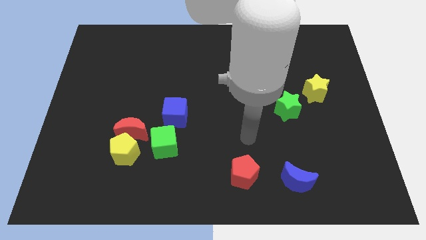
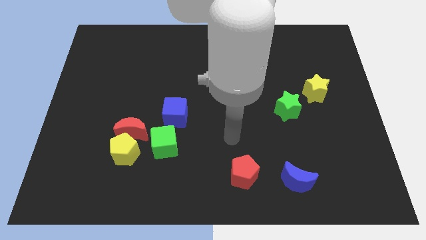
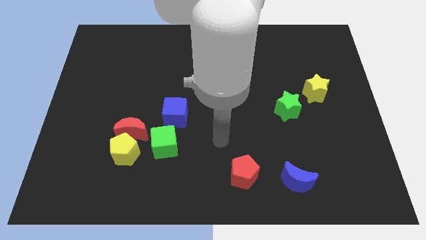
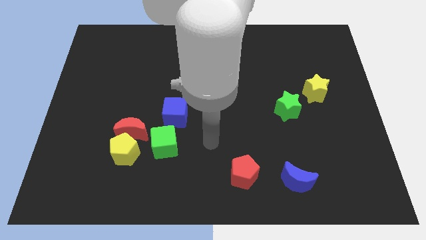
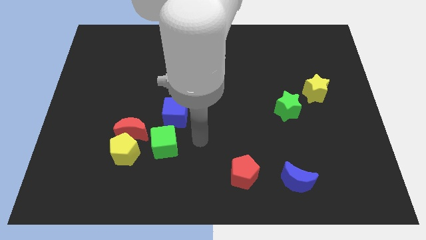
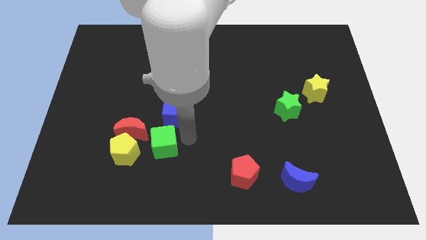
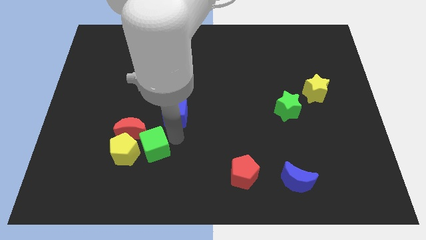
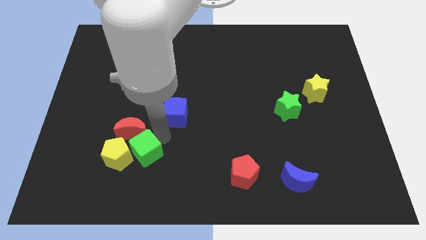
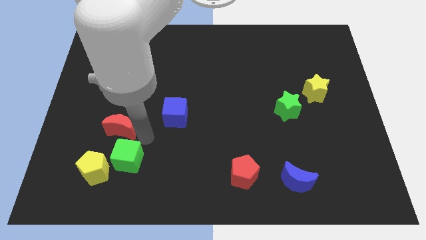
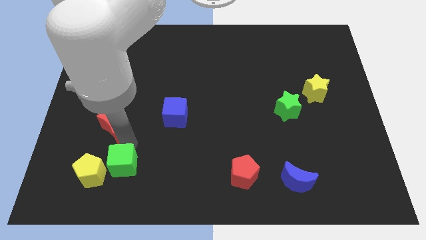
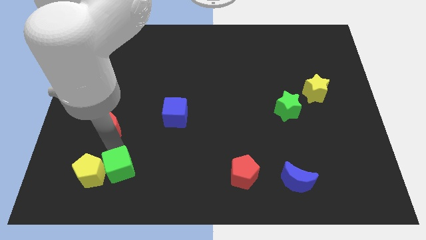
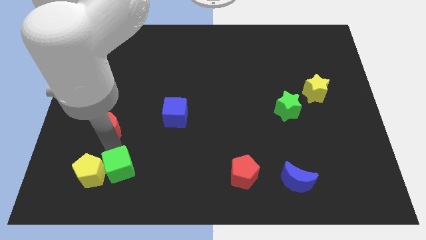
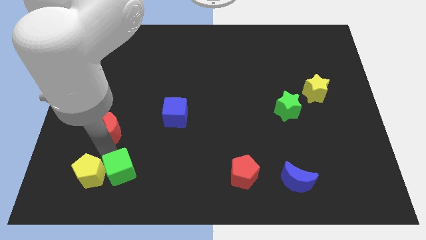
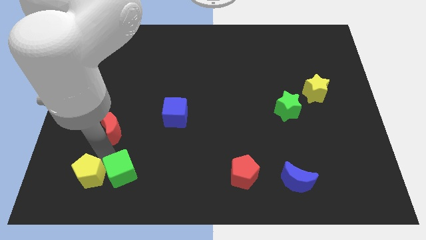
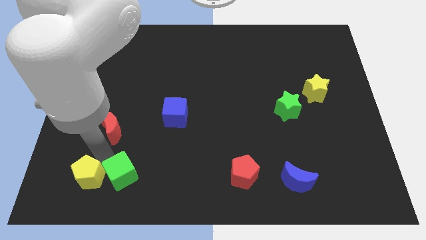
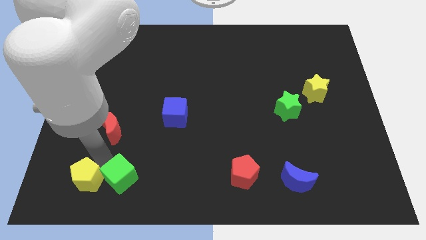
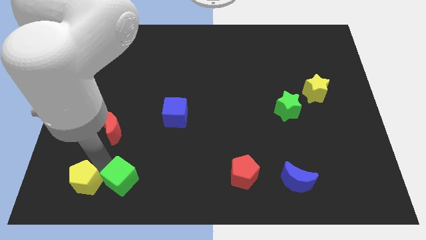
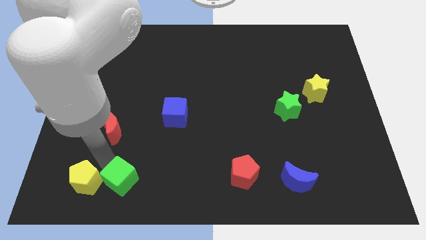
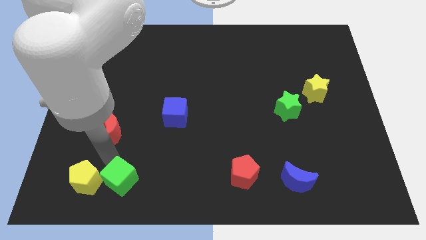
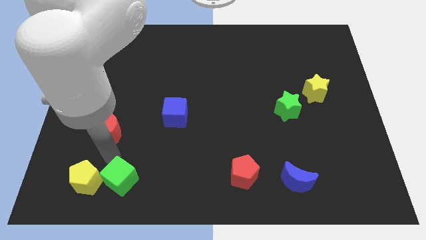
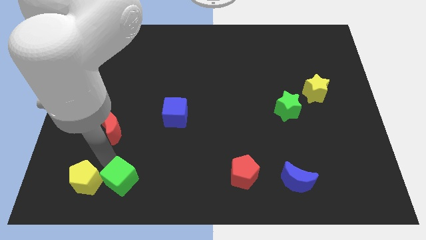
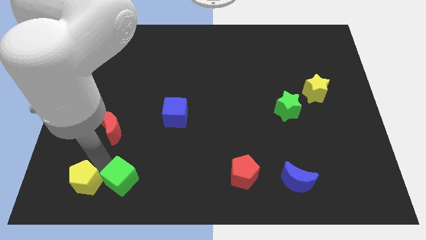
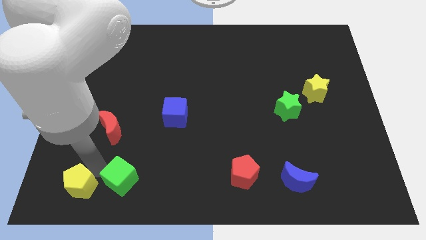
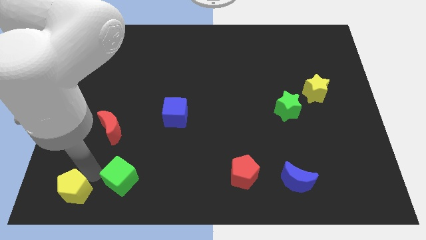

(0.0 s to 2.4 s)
pull the yellow pentagon apart from the red moon and green cube

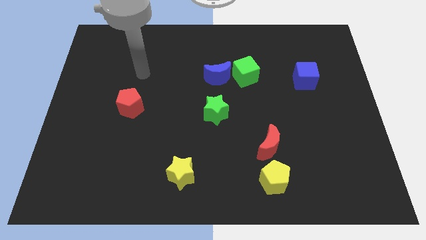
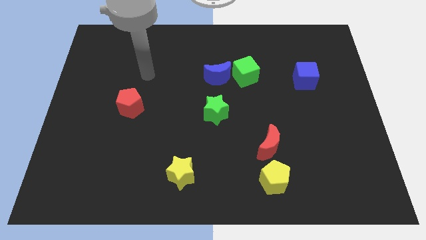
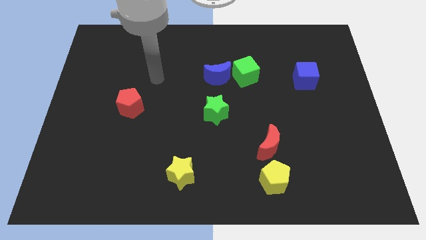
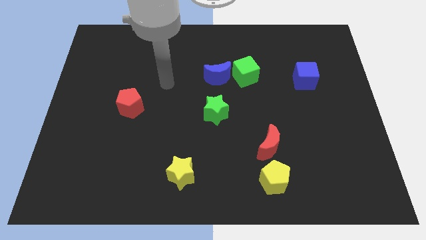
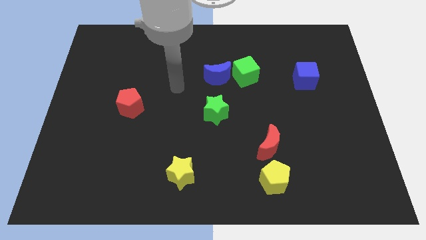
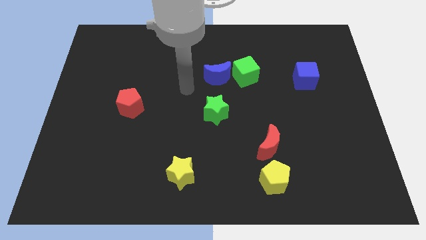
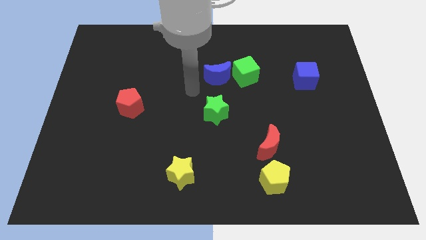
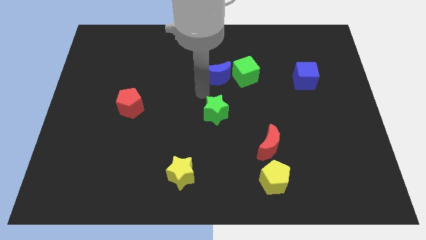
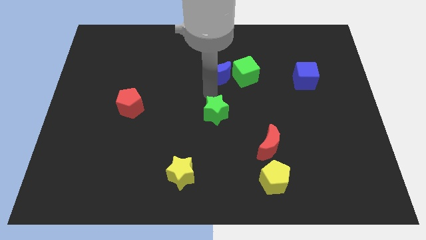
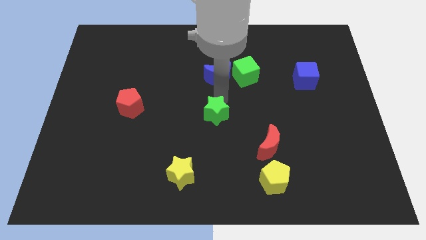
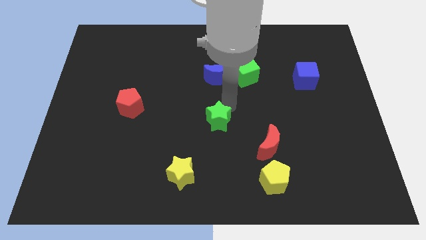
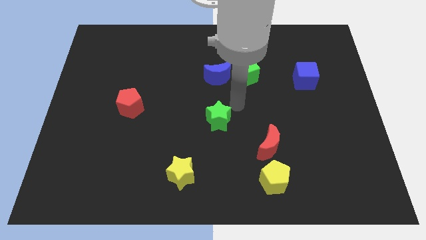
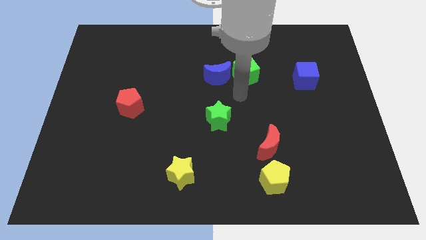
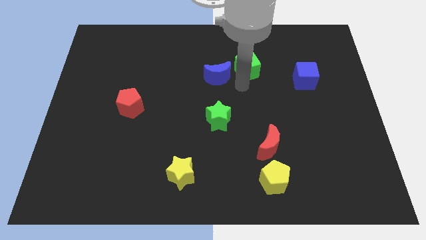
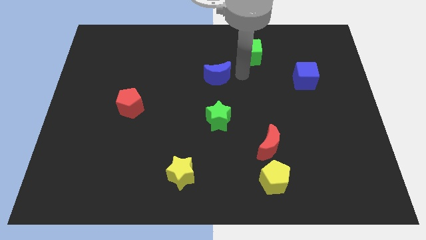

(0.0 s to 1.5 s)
separate the blue moon from the green cube

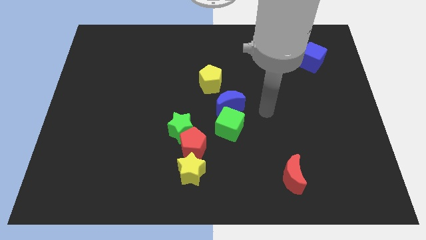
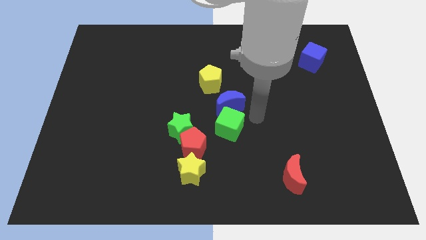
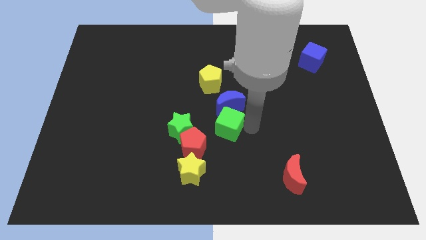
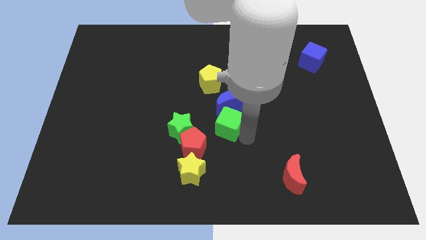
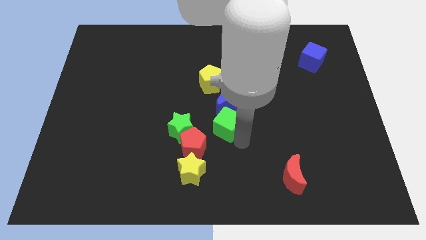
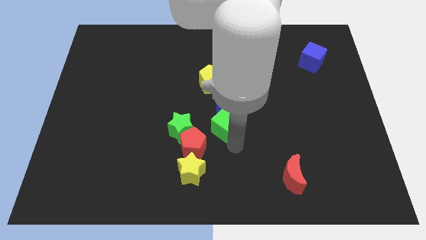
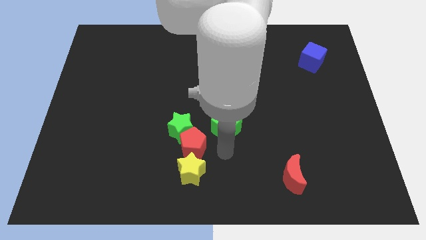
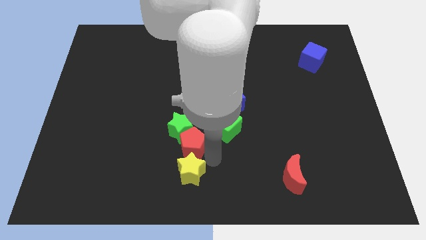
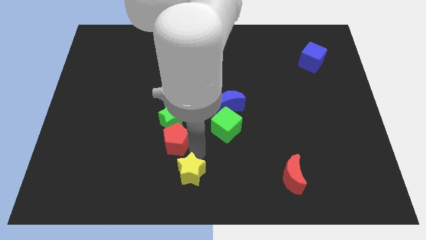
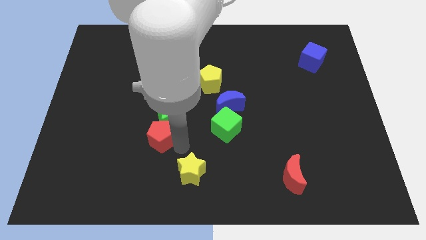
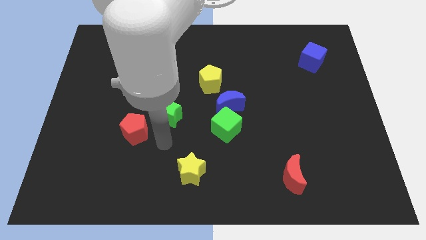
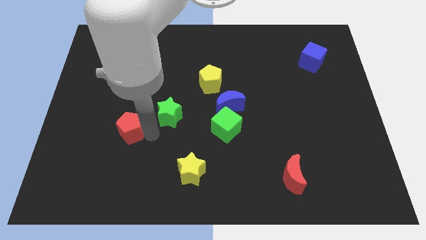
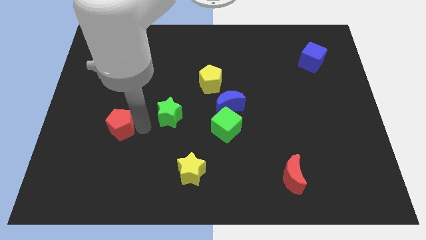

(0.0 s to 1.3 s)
move the green star away from the red pentagon

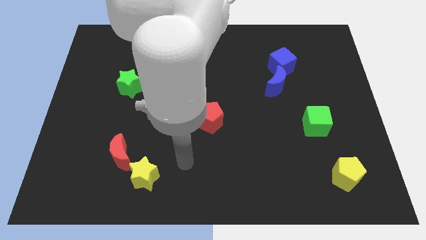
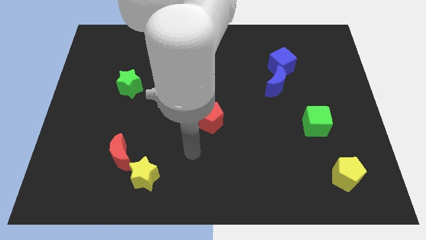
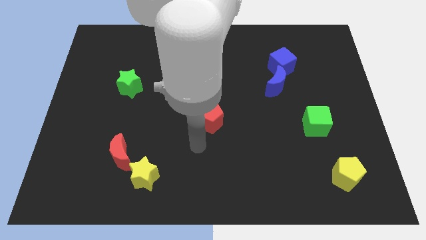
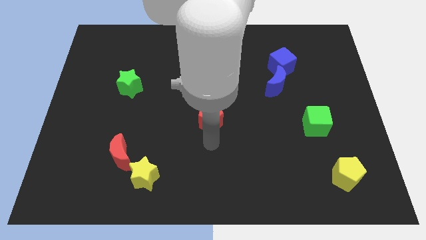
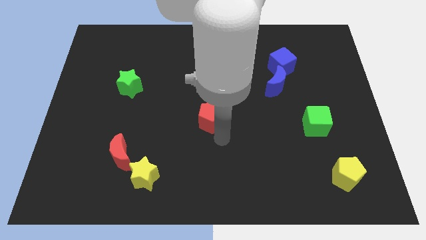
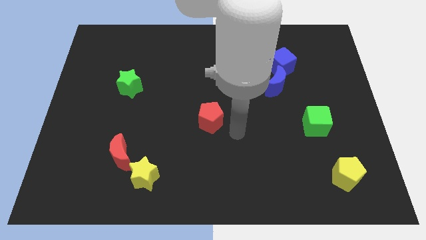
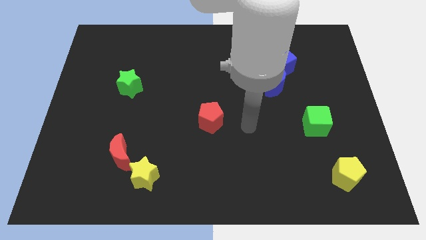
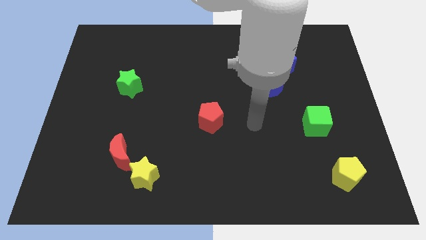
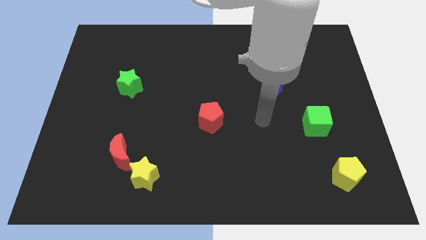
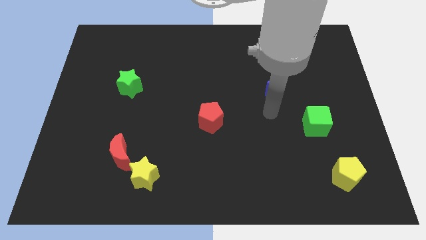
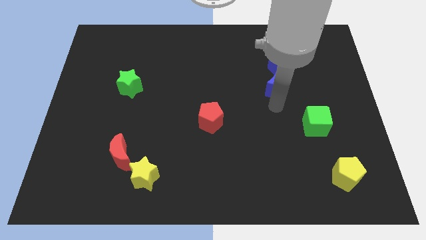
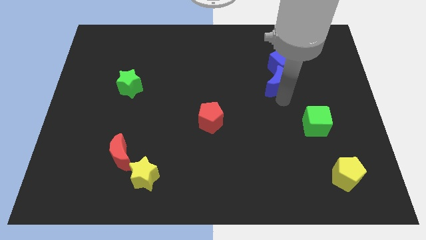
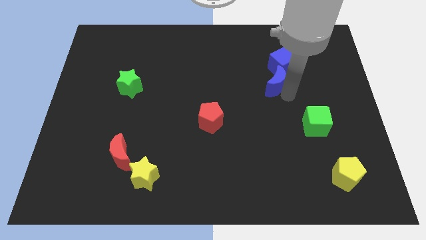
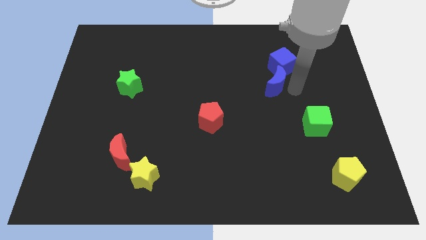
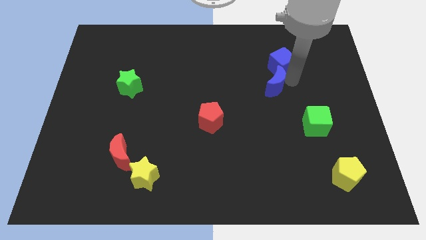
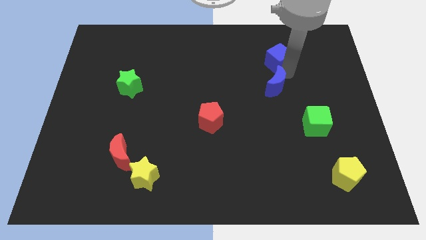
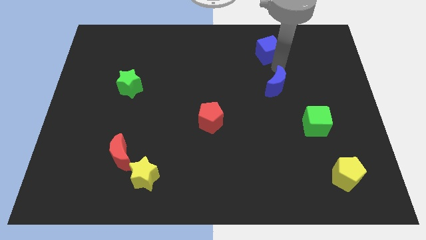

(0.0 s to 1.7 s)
move the blue moon away from the blue cube

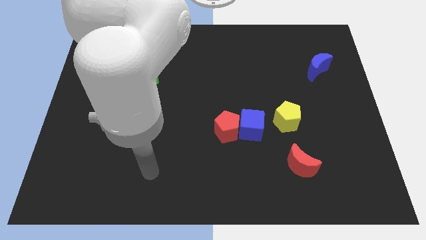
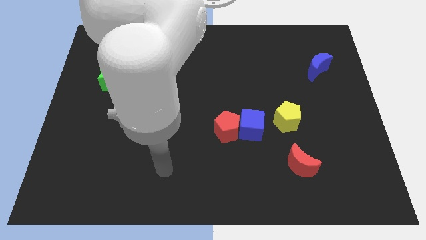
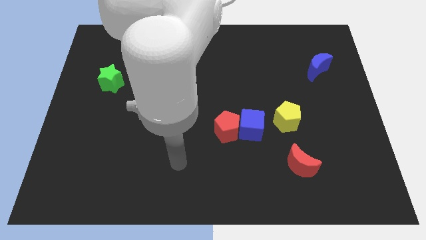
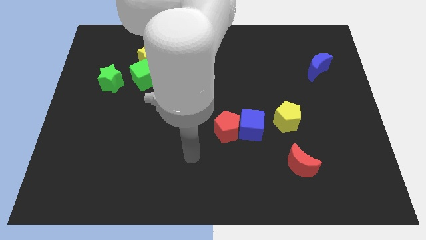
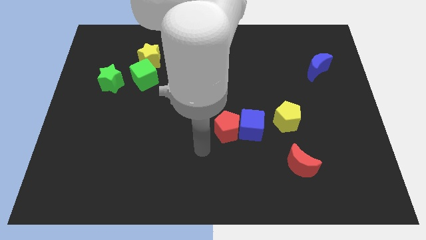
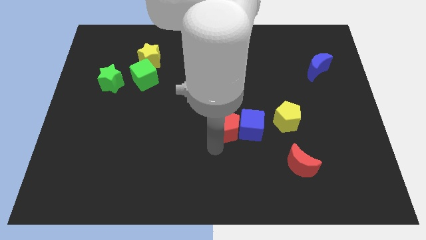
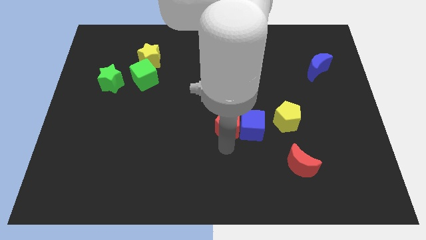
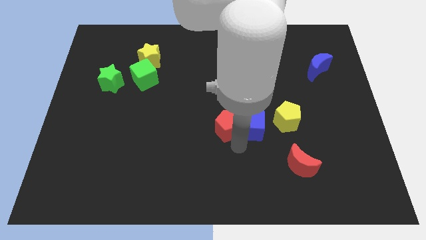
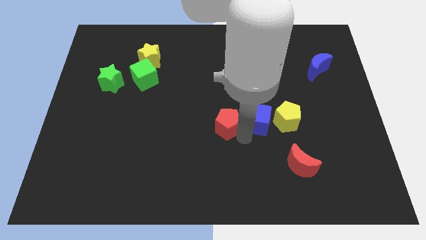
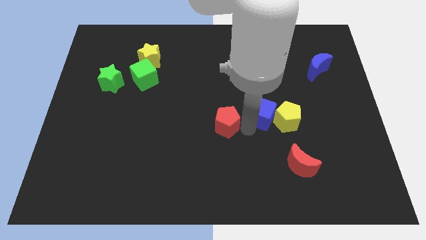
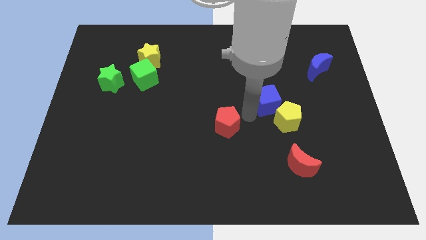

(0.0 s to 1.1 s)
separate the red pentagon from the blue cube

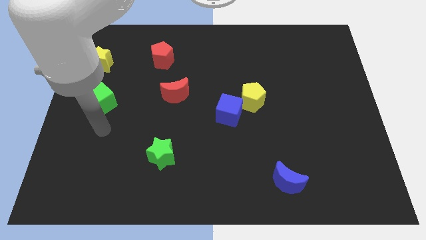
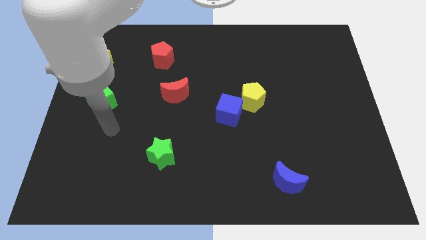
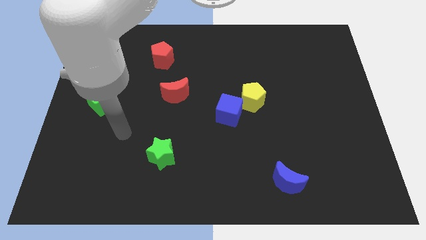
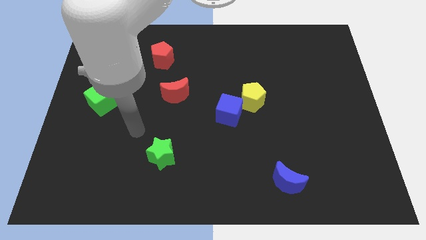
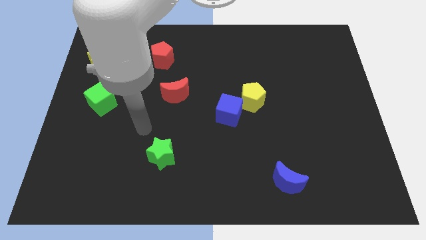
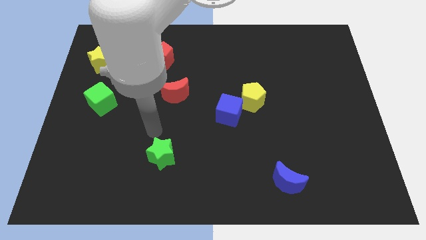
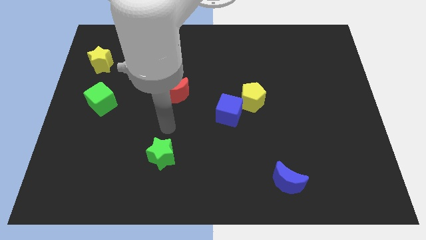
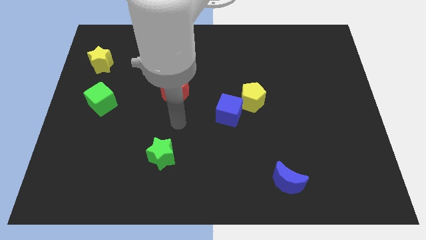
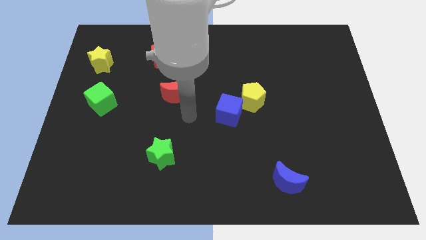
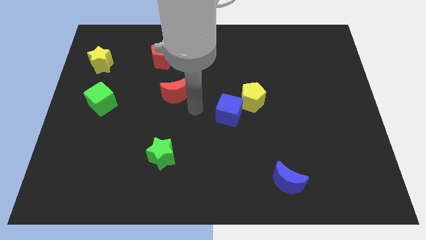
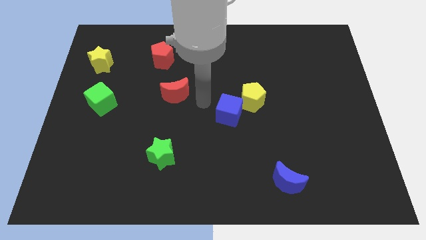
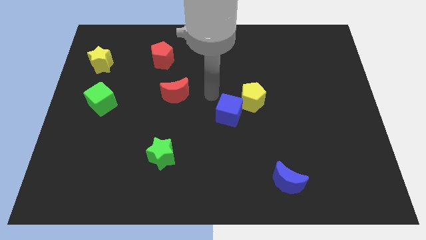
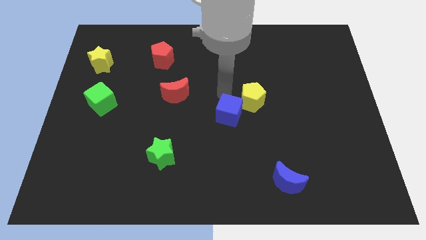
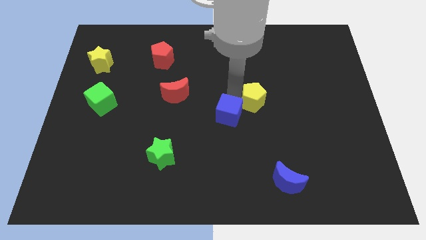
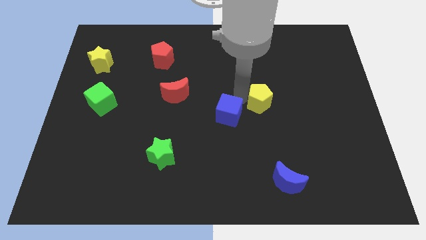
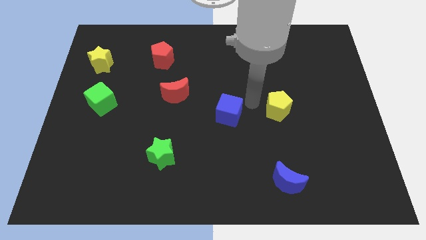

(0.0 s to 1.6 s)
move the blue cube away from the yellow pentagon
